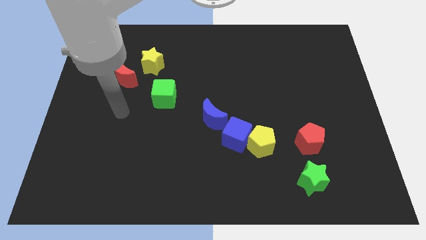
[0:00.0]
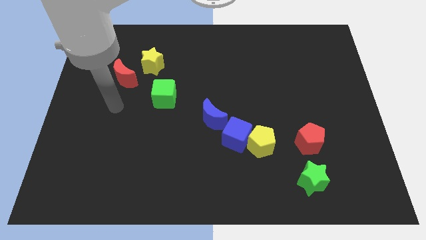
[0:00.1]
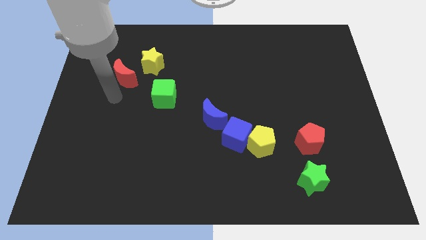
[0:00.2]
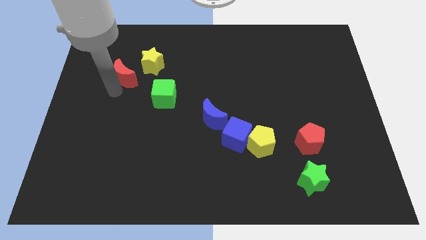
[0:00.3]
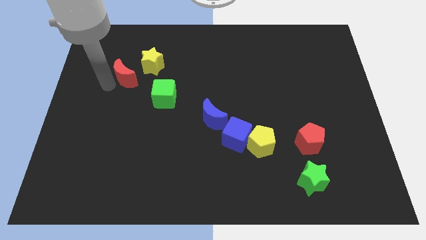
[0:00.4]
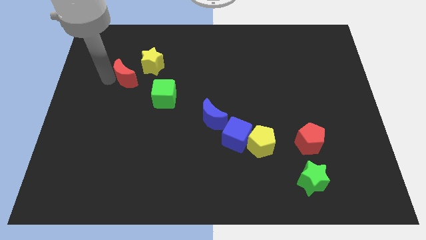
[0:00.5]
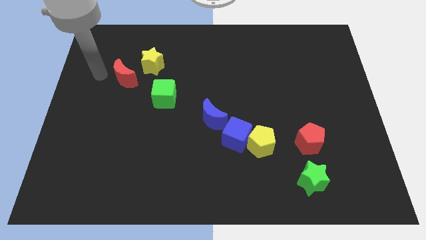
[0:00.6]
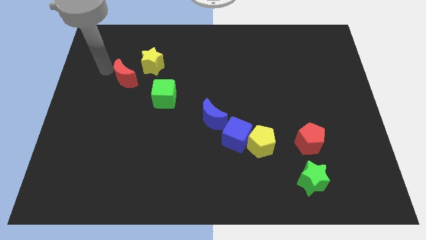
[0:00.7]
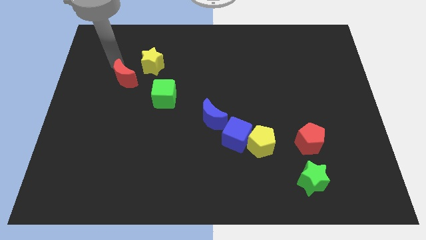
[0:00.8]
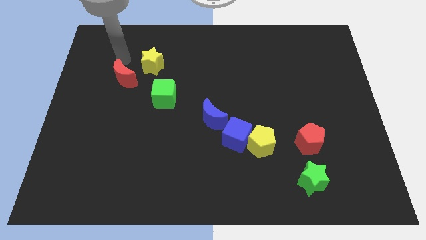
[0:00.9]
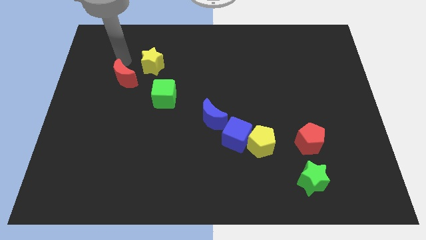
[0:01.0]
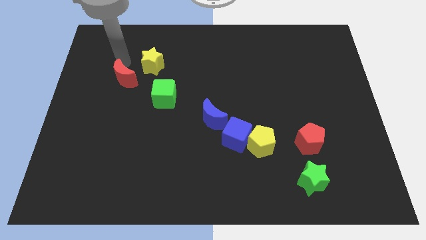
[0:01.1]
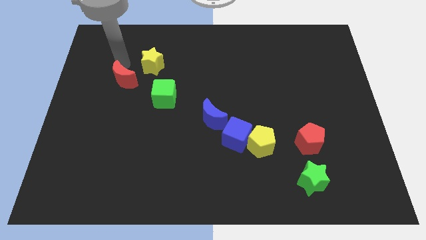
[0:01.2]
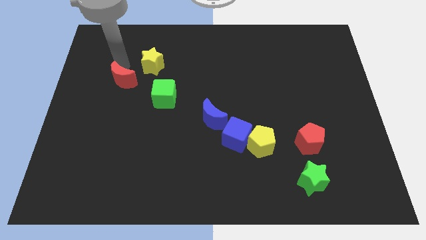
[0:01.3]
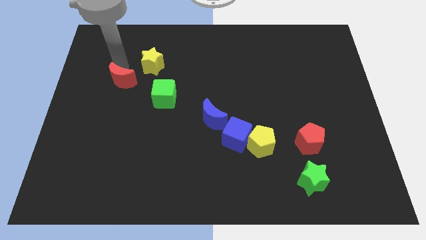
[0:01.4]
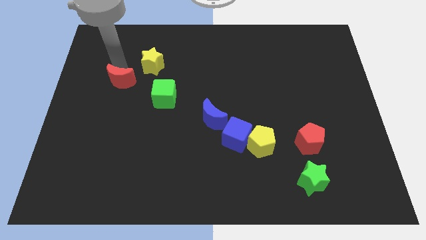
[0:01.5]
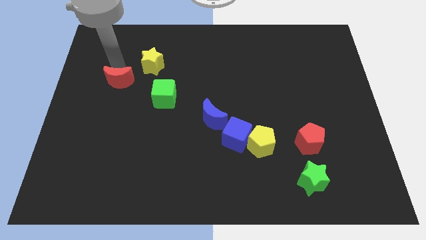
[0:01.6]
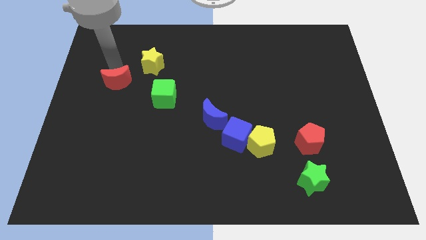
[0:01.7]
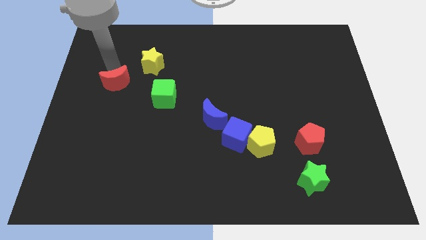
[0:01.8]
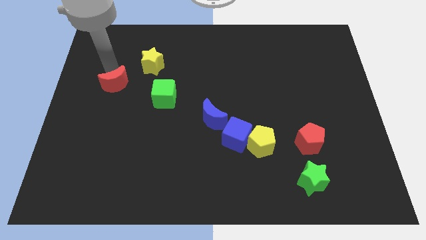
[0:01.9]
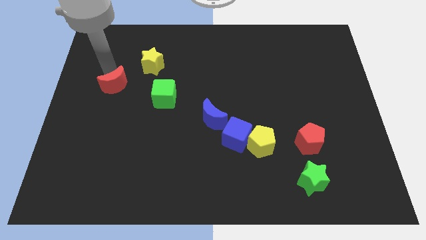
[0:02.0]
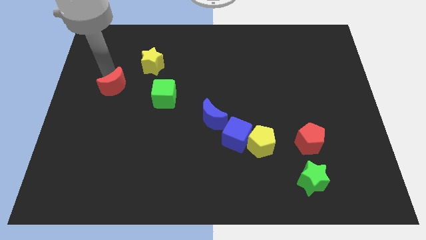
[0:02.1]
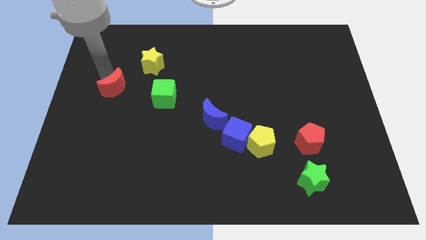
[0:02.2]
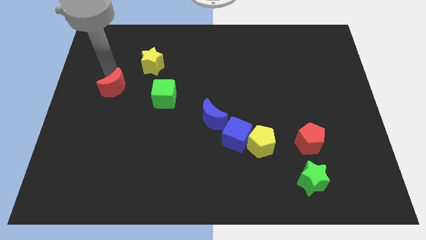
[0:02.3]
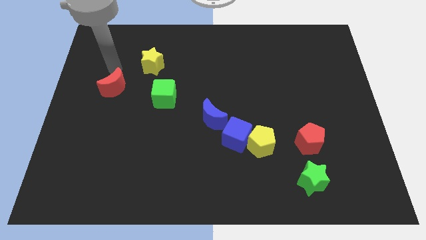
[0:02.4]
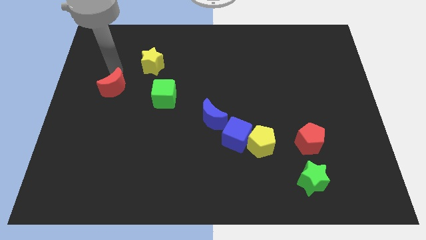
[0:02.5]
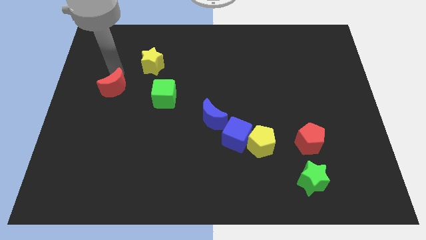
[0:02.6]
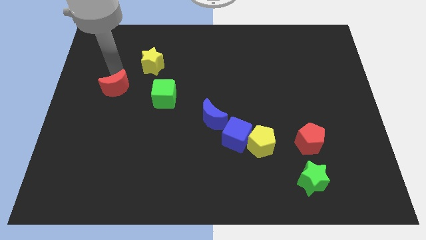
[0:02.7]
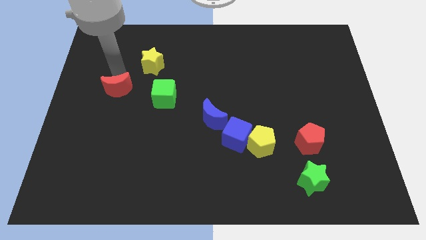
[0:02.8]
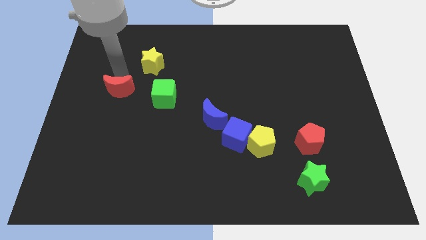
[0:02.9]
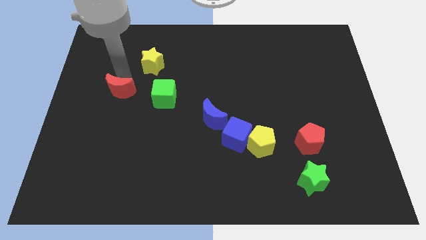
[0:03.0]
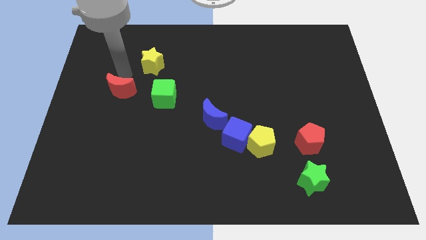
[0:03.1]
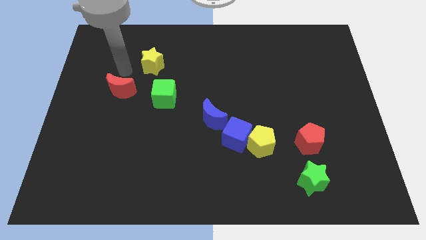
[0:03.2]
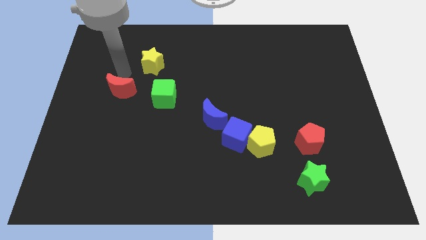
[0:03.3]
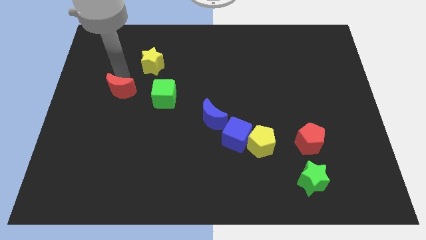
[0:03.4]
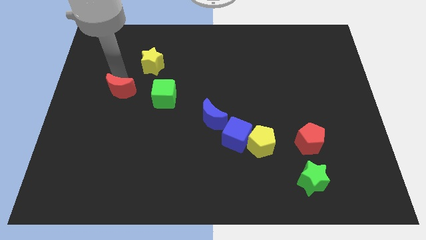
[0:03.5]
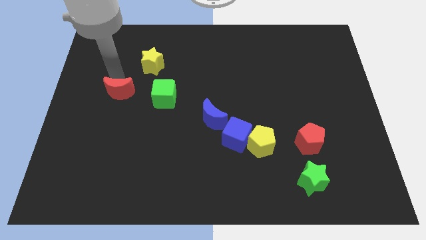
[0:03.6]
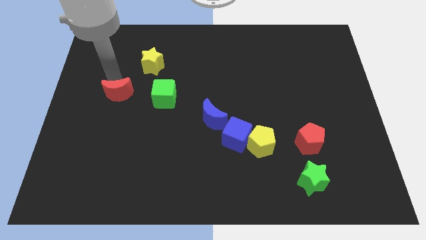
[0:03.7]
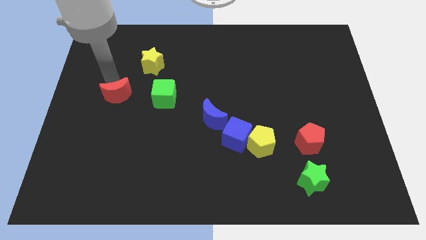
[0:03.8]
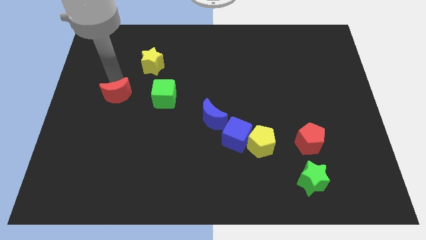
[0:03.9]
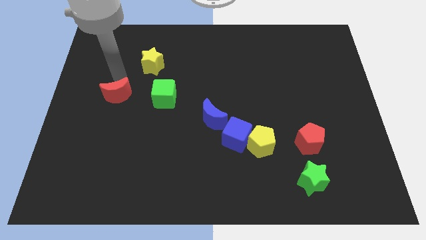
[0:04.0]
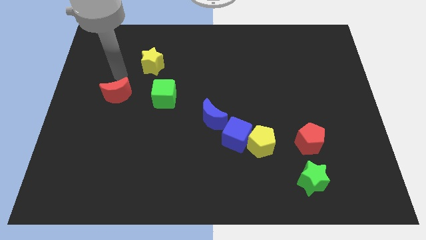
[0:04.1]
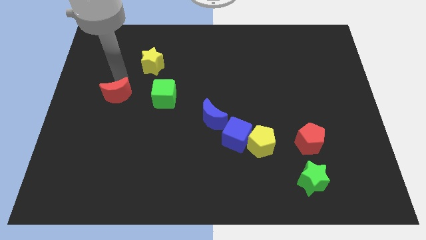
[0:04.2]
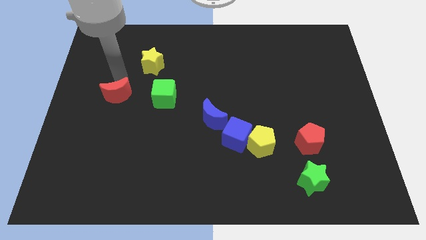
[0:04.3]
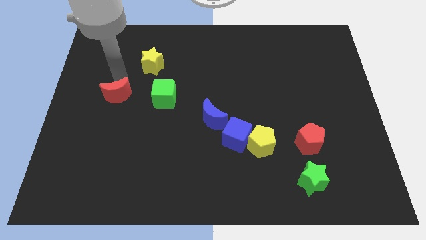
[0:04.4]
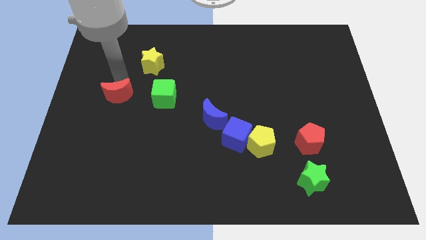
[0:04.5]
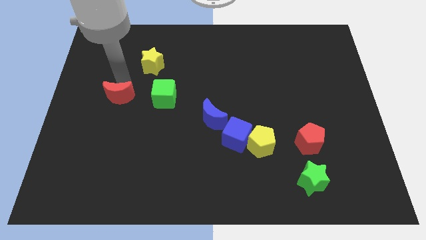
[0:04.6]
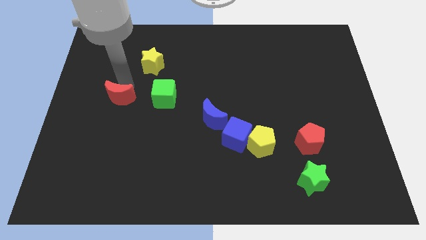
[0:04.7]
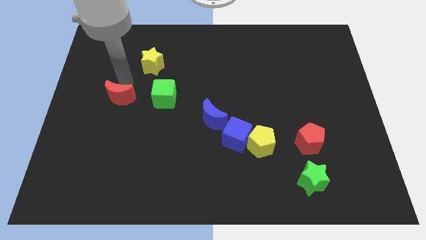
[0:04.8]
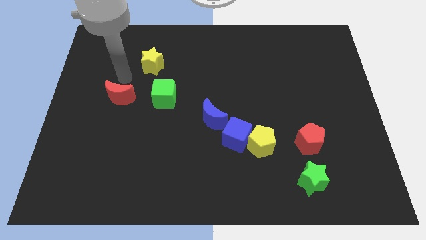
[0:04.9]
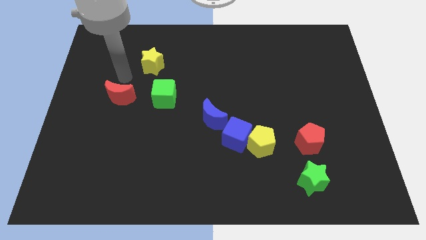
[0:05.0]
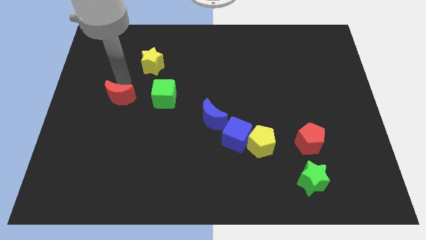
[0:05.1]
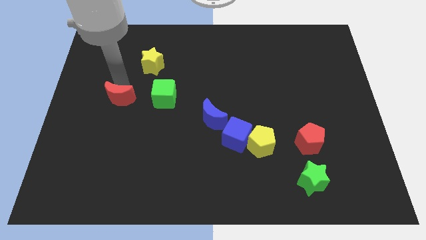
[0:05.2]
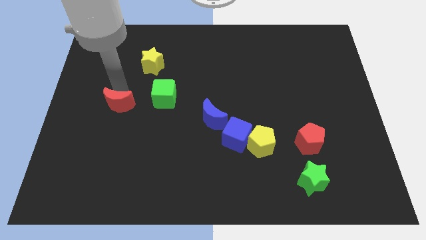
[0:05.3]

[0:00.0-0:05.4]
push the red moon a little downwards

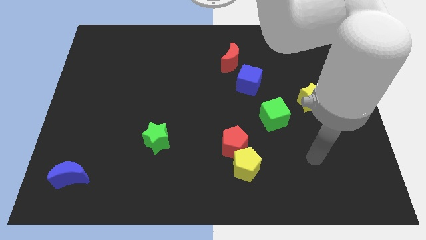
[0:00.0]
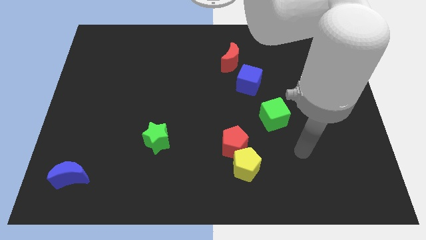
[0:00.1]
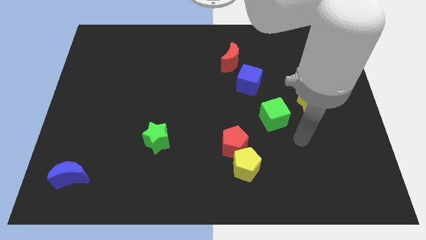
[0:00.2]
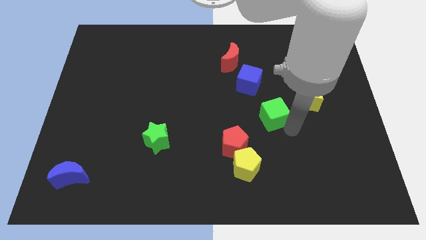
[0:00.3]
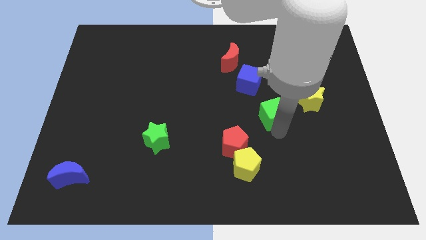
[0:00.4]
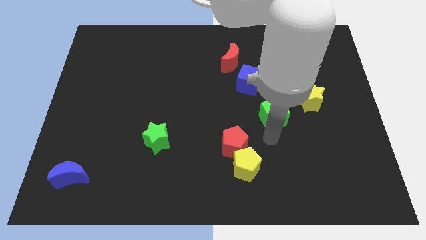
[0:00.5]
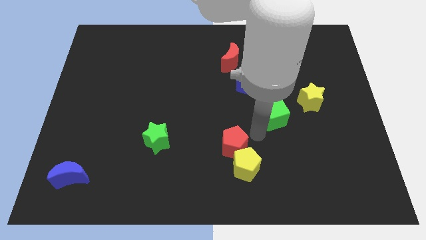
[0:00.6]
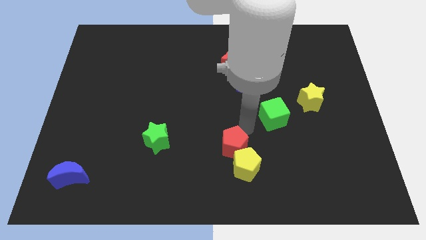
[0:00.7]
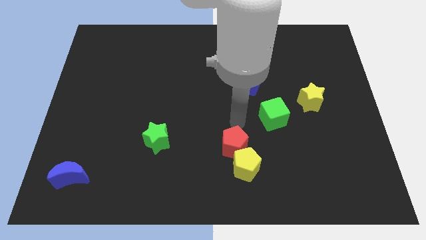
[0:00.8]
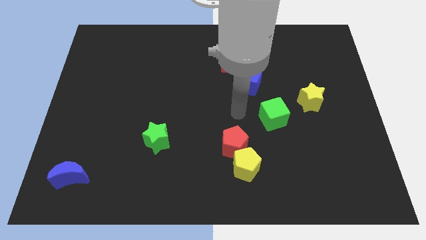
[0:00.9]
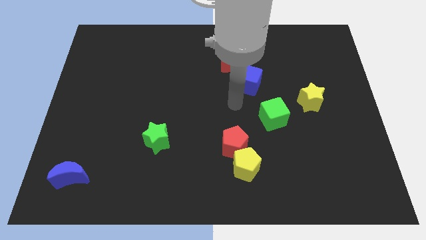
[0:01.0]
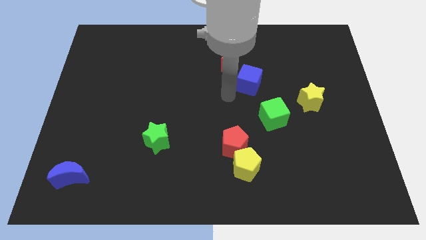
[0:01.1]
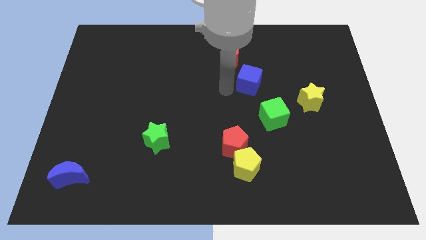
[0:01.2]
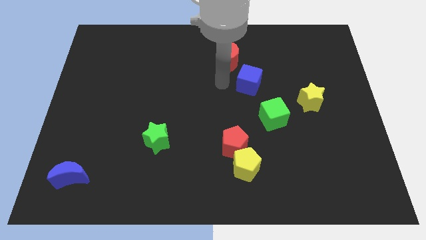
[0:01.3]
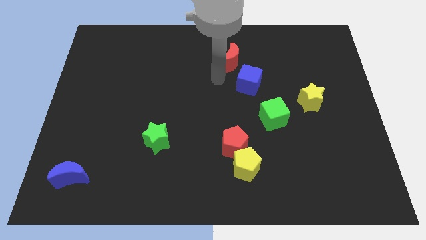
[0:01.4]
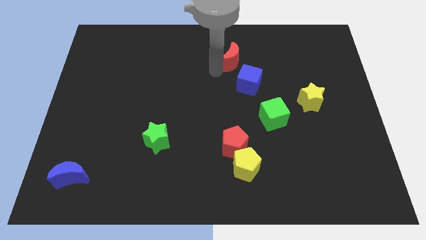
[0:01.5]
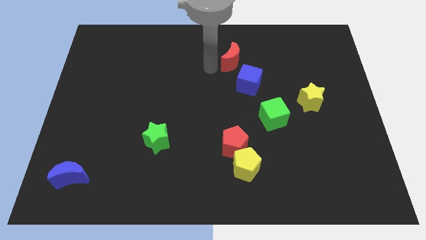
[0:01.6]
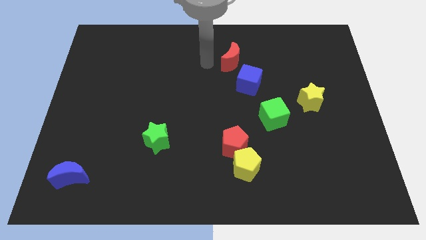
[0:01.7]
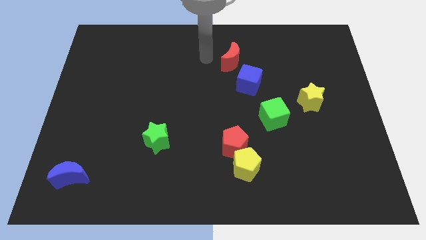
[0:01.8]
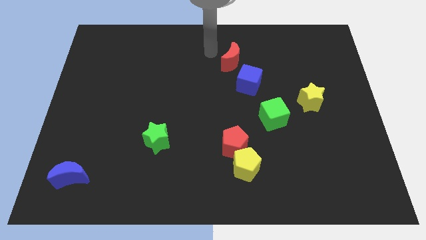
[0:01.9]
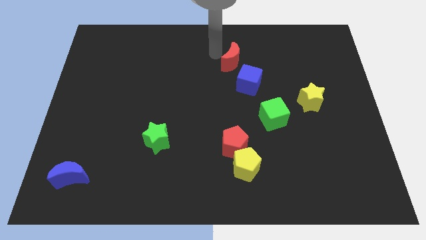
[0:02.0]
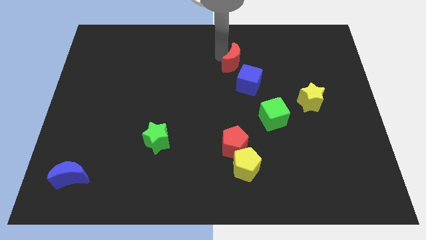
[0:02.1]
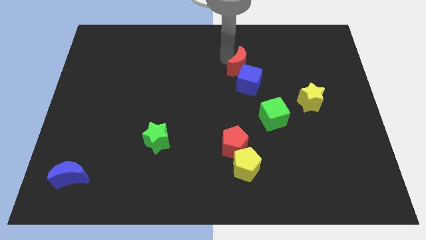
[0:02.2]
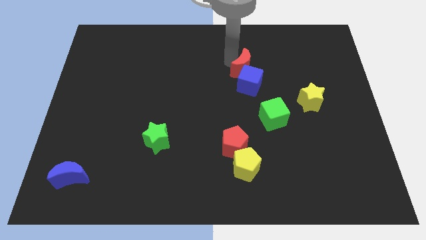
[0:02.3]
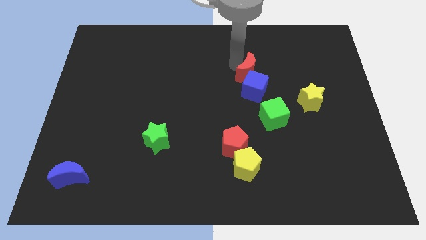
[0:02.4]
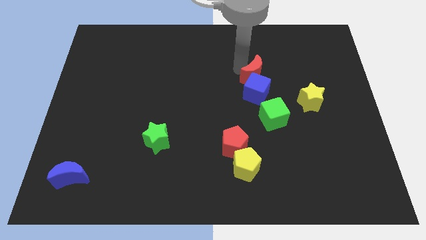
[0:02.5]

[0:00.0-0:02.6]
move the red moon a little downwards and to the right diagonally

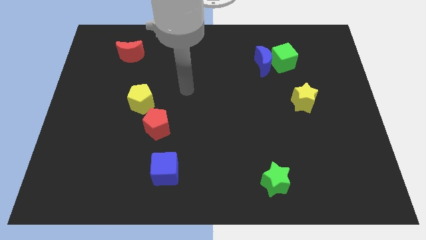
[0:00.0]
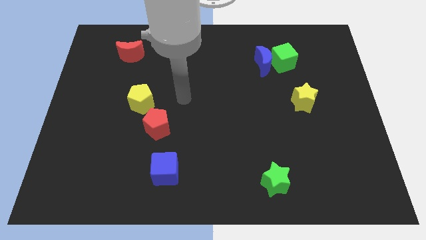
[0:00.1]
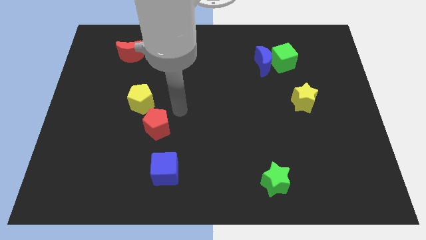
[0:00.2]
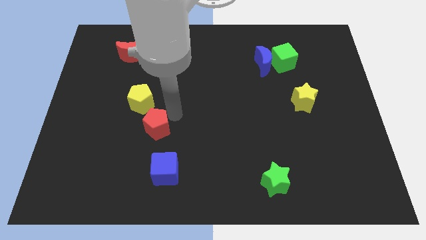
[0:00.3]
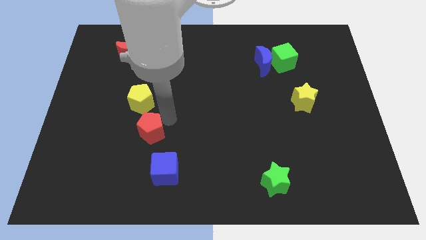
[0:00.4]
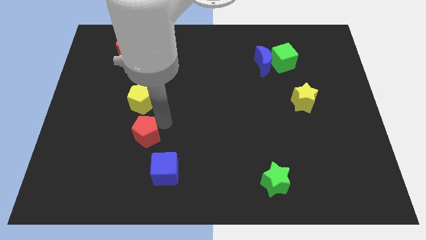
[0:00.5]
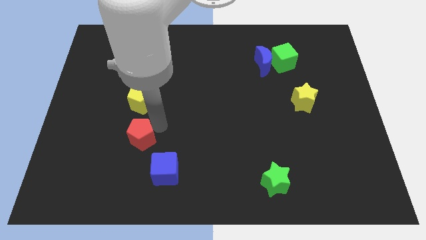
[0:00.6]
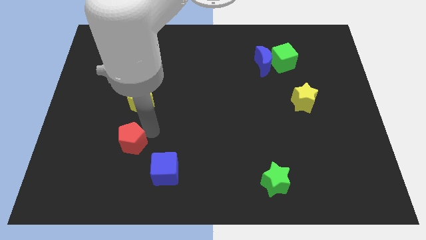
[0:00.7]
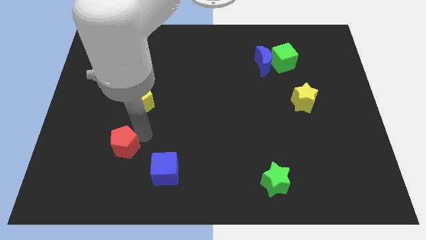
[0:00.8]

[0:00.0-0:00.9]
move the red pentagon a bit down and to the left
